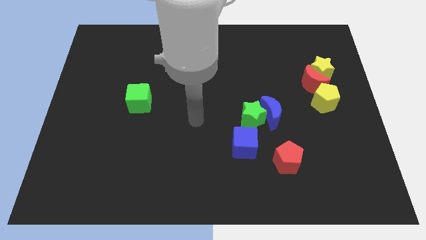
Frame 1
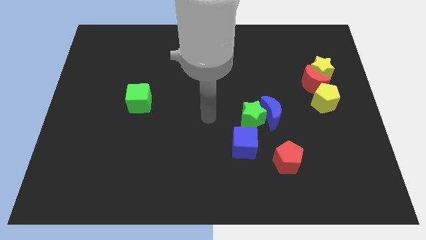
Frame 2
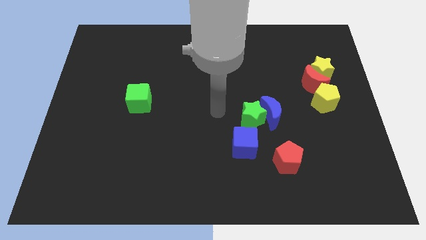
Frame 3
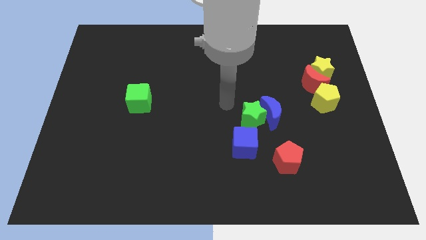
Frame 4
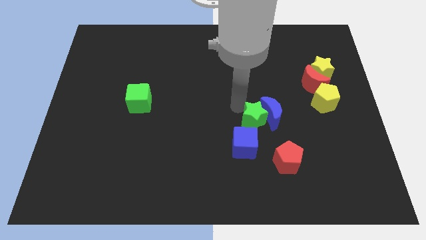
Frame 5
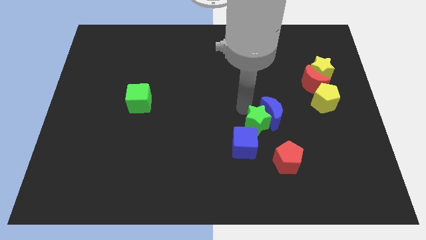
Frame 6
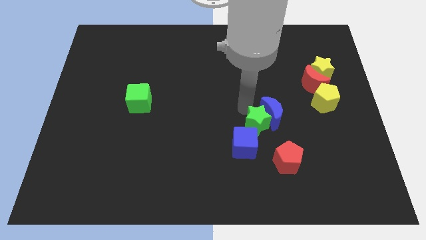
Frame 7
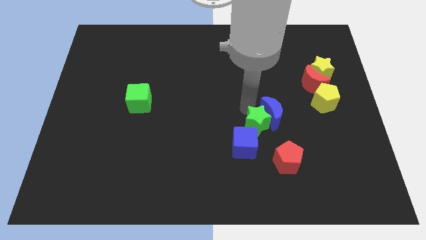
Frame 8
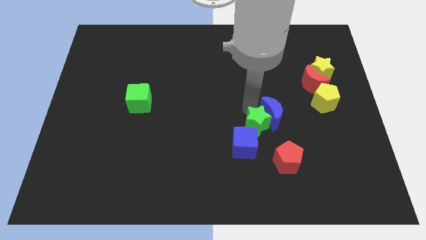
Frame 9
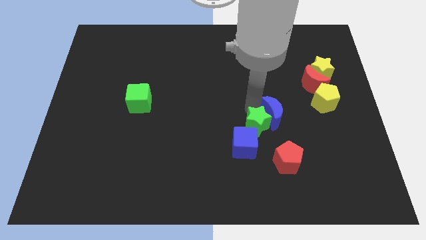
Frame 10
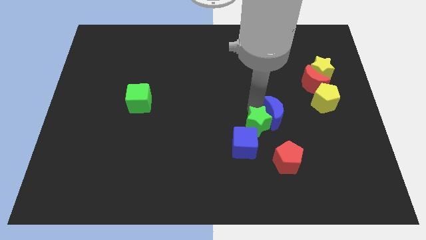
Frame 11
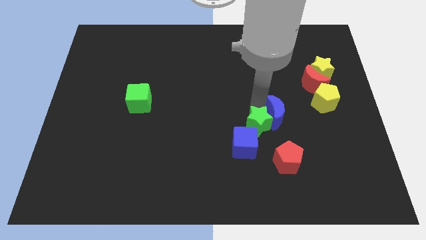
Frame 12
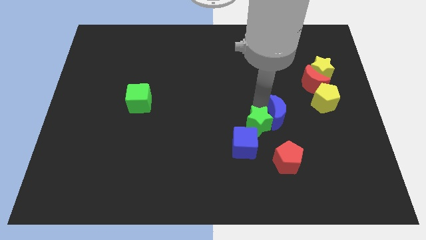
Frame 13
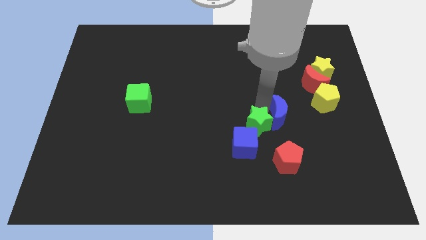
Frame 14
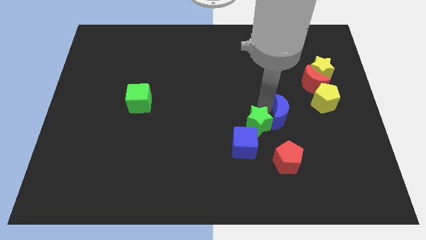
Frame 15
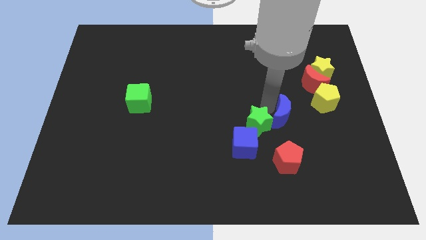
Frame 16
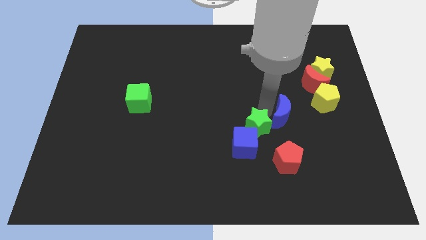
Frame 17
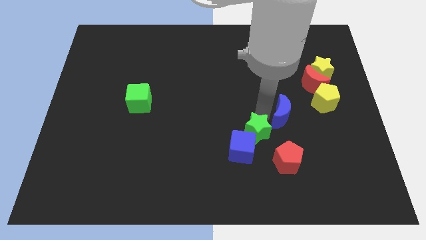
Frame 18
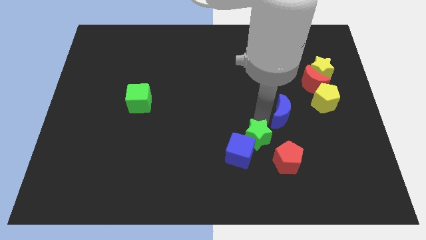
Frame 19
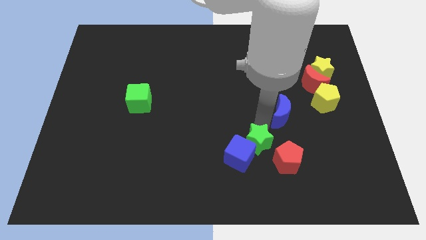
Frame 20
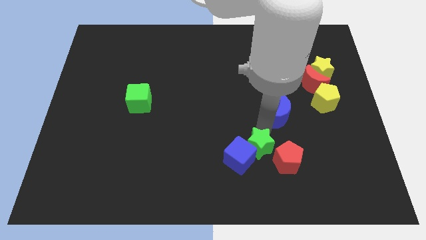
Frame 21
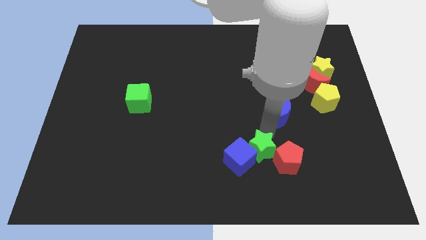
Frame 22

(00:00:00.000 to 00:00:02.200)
pull the blue moon apart from the green star

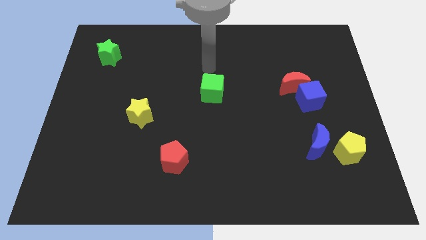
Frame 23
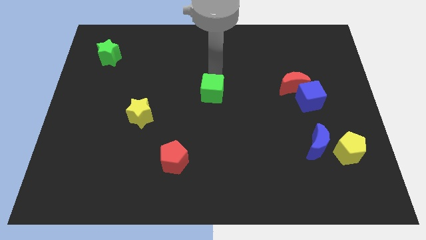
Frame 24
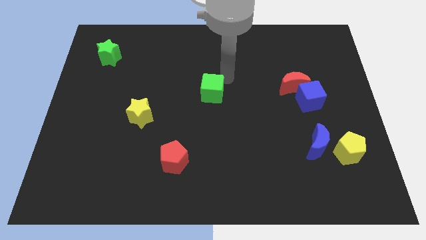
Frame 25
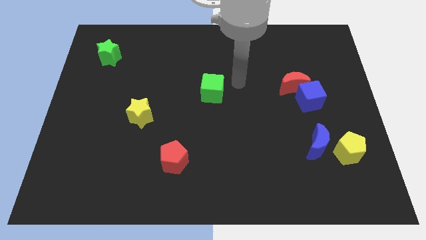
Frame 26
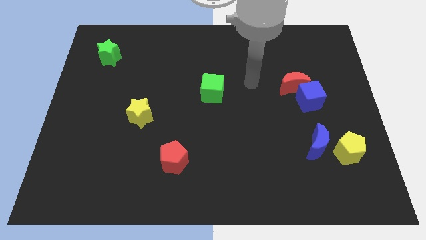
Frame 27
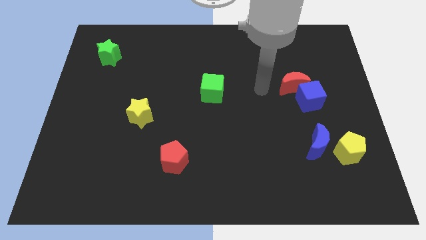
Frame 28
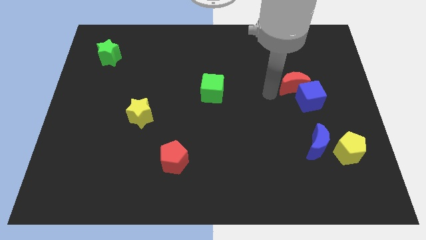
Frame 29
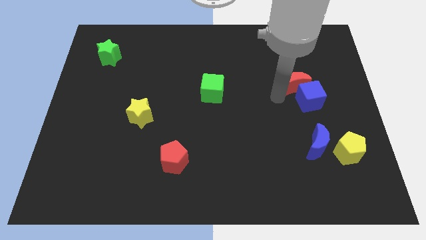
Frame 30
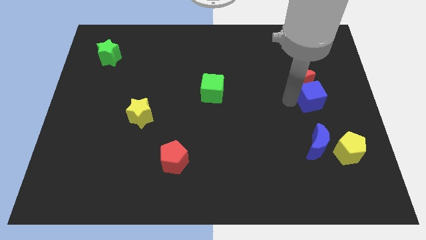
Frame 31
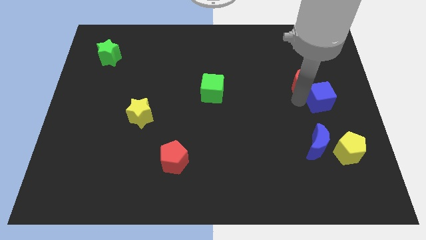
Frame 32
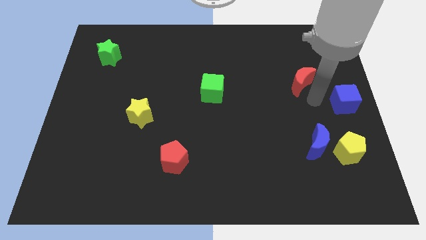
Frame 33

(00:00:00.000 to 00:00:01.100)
move the red moon away from the blue cube

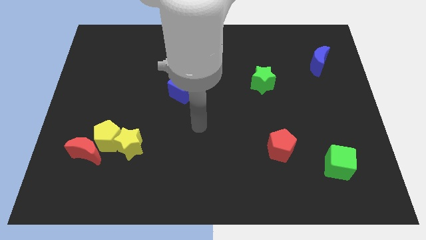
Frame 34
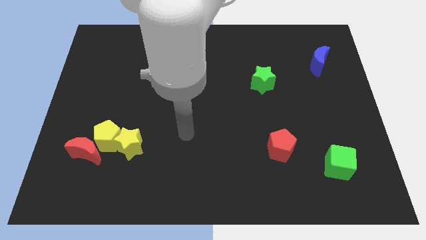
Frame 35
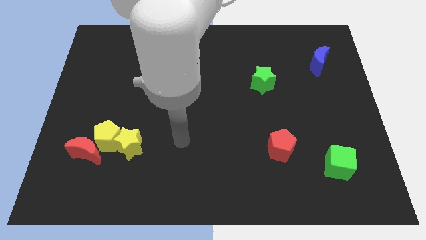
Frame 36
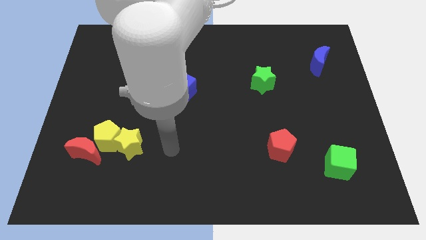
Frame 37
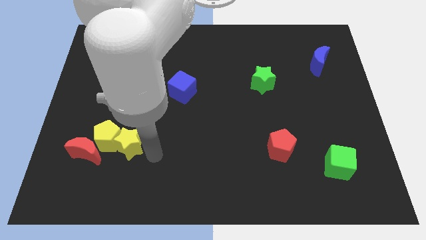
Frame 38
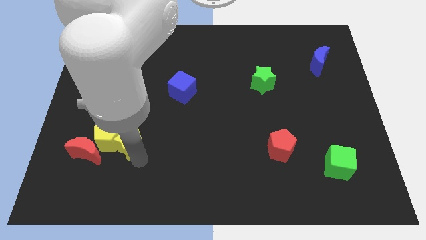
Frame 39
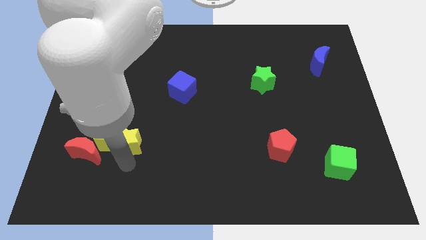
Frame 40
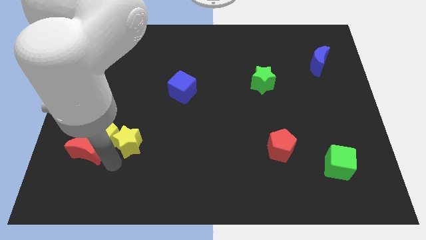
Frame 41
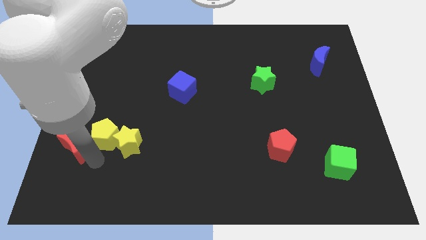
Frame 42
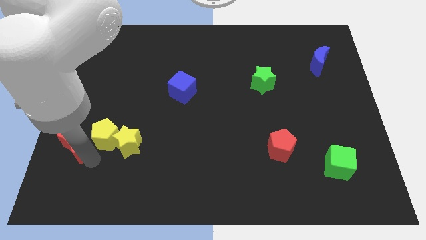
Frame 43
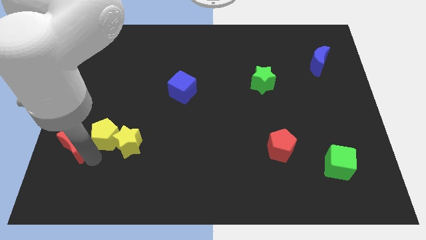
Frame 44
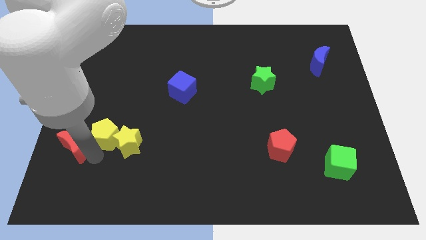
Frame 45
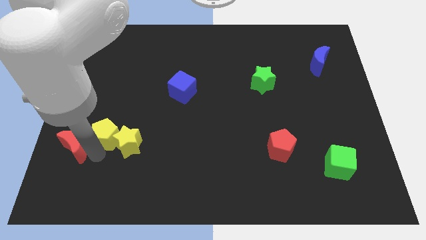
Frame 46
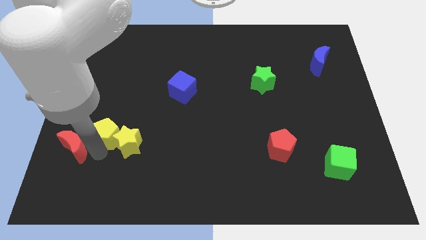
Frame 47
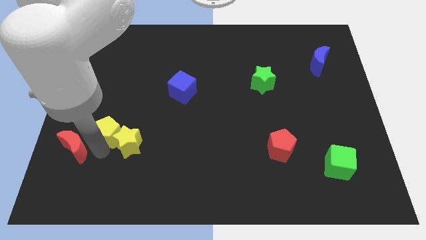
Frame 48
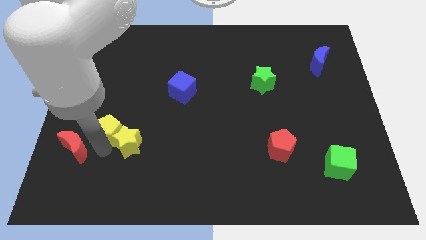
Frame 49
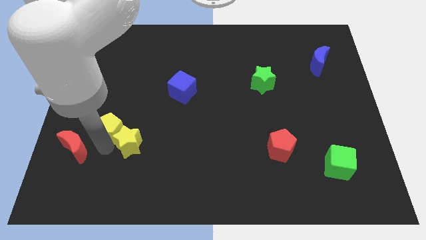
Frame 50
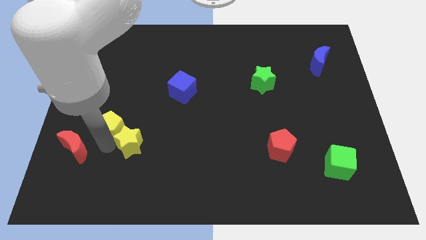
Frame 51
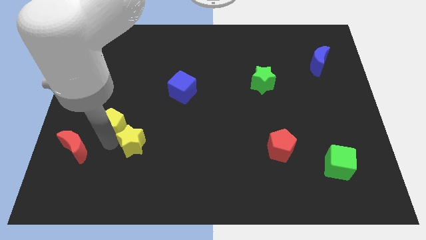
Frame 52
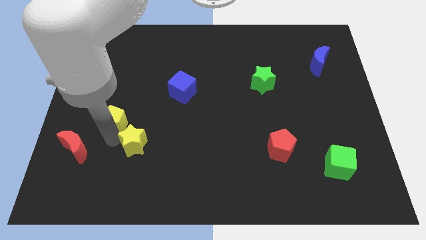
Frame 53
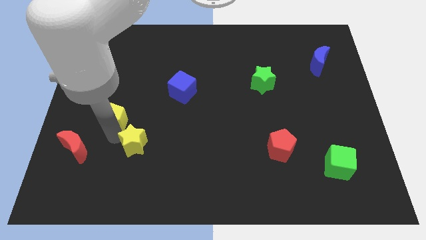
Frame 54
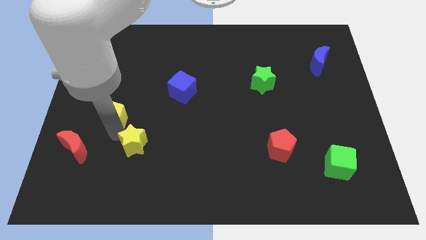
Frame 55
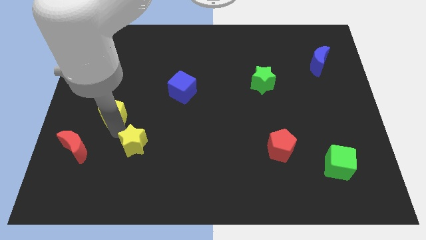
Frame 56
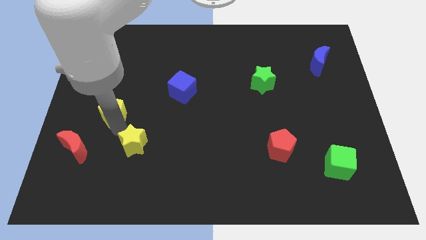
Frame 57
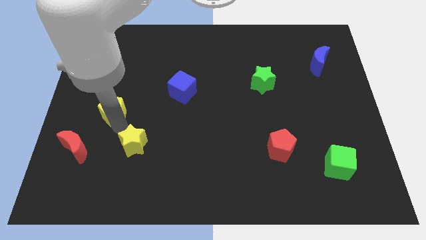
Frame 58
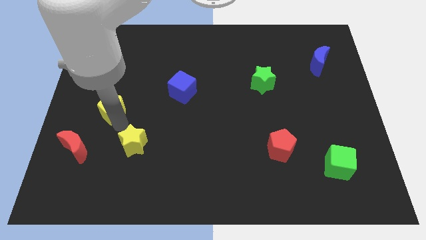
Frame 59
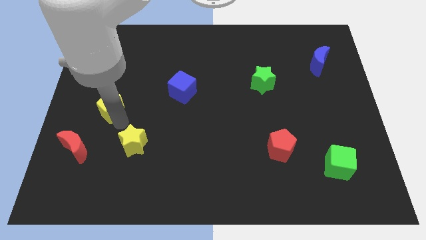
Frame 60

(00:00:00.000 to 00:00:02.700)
move the yellow pentagon away from the red moon and yellow star

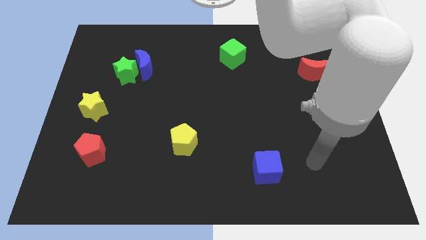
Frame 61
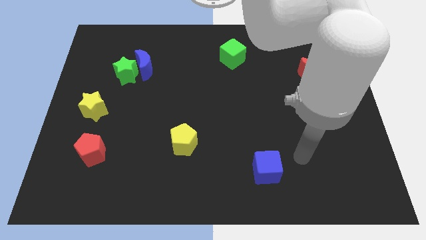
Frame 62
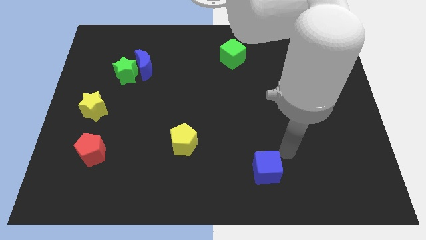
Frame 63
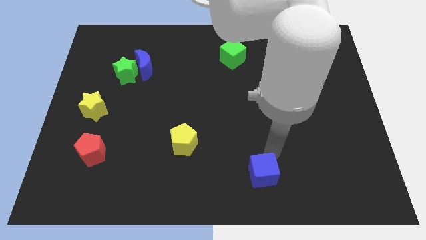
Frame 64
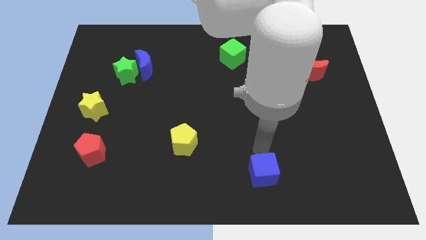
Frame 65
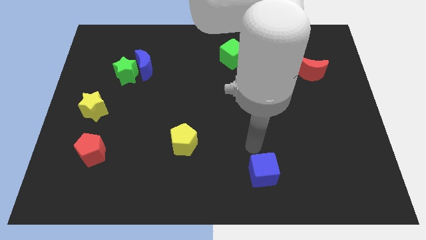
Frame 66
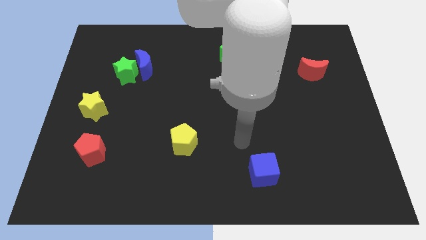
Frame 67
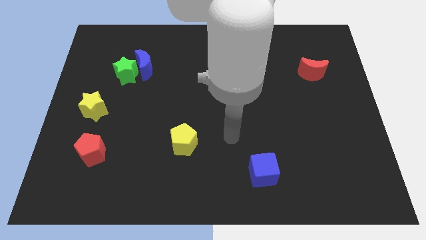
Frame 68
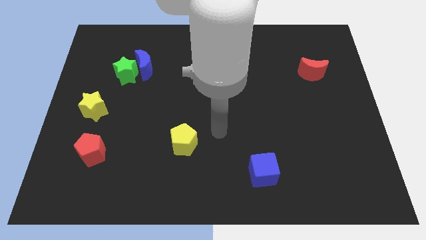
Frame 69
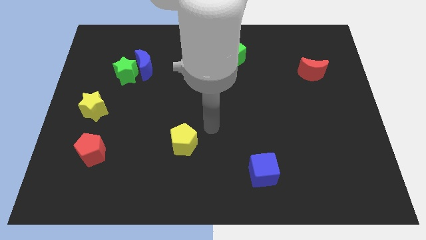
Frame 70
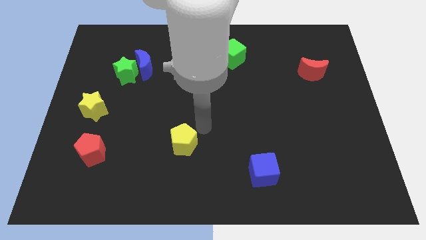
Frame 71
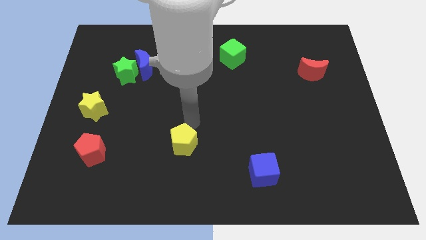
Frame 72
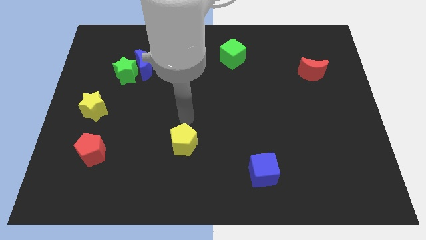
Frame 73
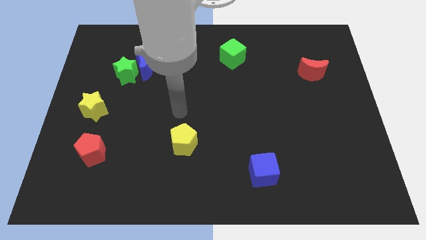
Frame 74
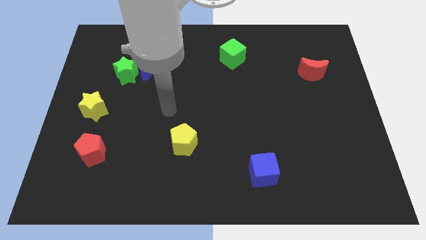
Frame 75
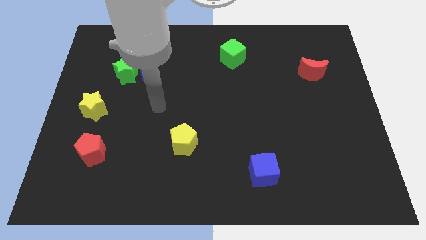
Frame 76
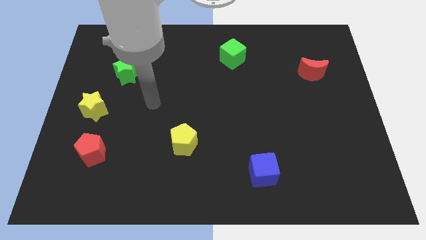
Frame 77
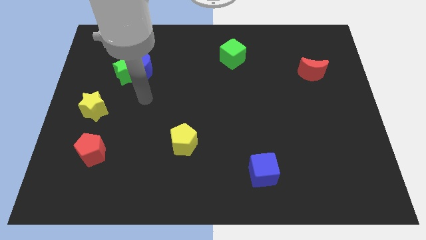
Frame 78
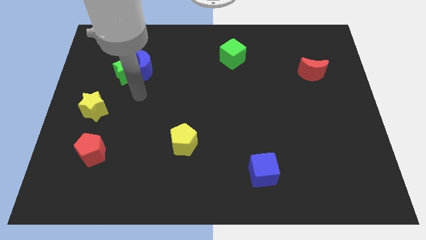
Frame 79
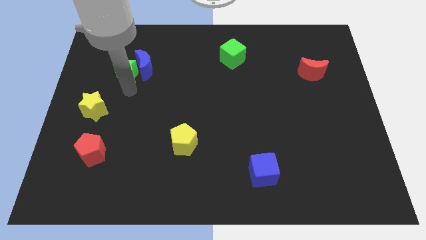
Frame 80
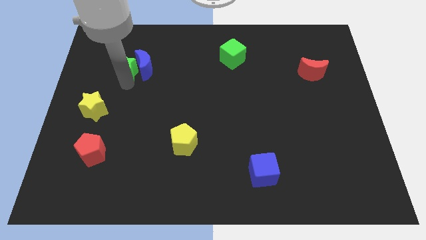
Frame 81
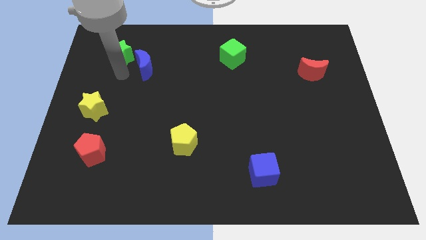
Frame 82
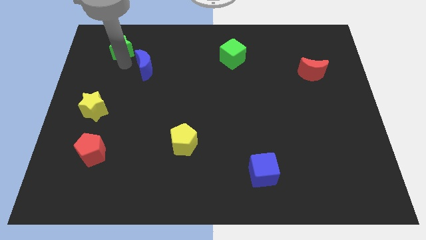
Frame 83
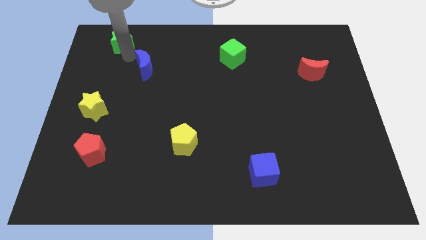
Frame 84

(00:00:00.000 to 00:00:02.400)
separate the blue moon from the green star

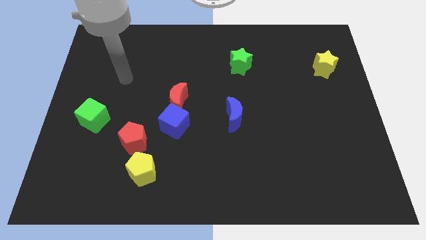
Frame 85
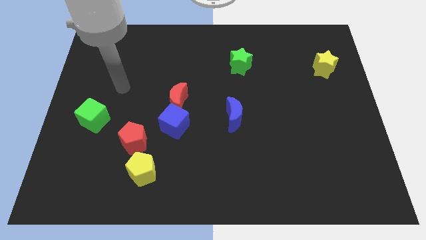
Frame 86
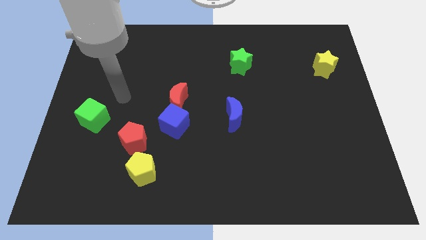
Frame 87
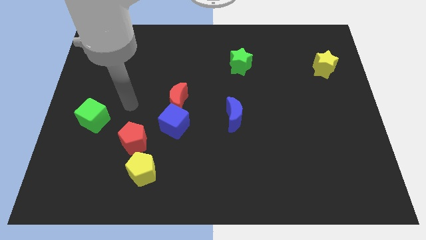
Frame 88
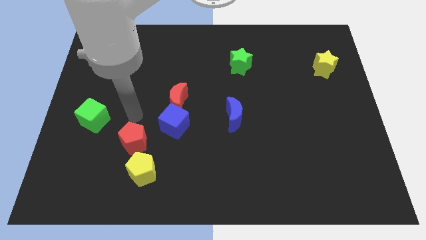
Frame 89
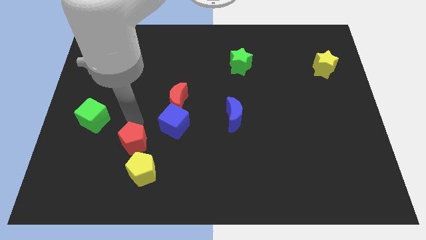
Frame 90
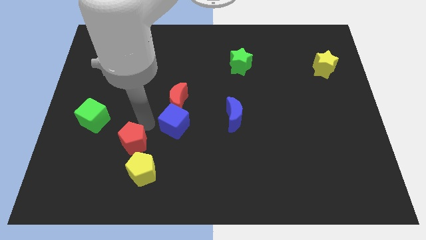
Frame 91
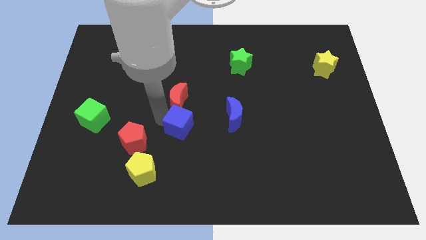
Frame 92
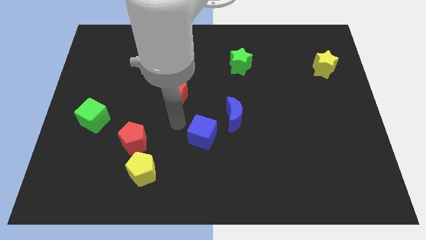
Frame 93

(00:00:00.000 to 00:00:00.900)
pull the red moon apart from the blue cube

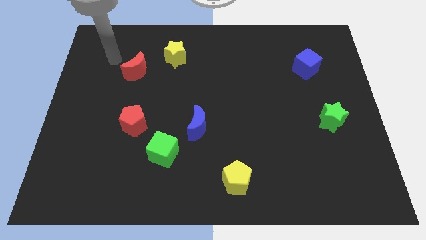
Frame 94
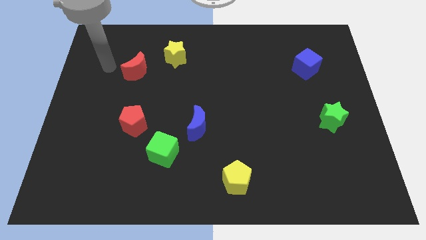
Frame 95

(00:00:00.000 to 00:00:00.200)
move the blue moon away from the green cube
